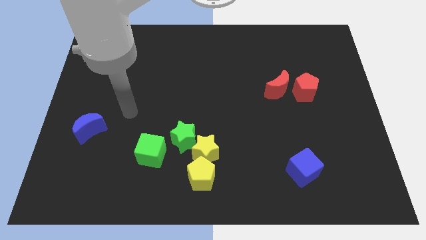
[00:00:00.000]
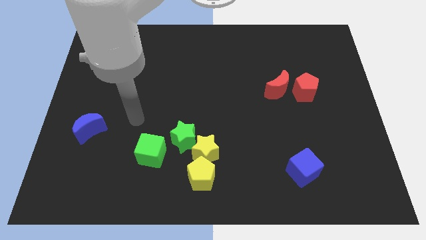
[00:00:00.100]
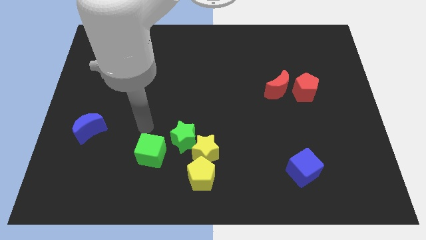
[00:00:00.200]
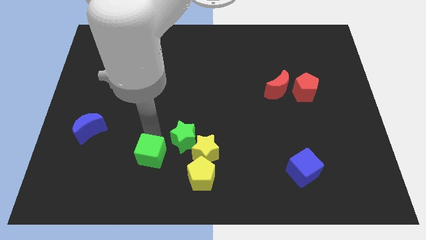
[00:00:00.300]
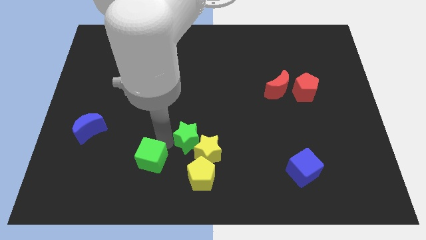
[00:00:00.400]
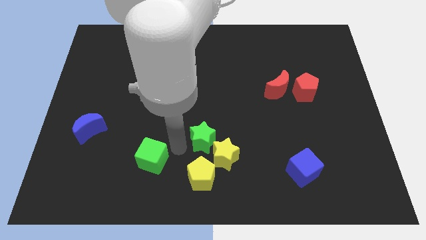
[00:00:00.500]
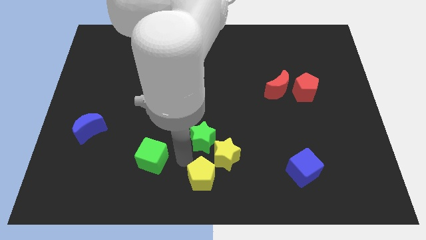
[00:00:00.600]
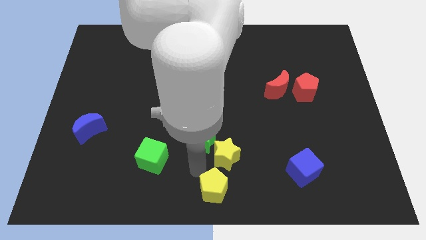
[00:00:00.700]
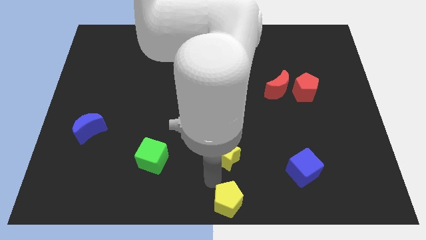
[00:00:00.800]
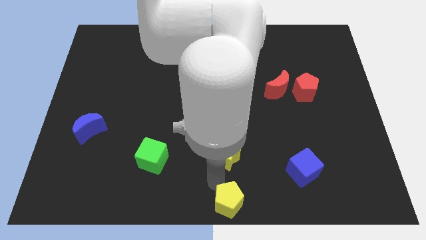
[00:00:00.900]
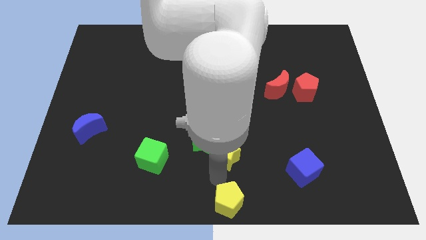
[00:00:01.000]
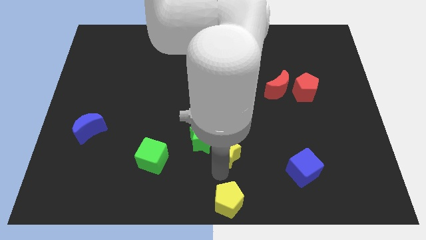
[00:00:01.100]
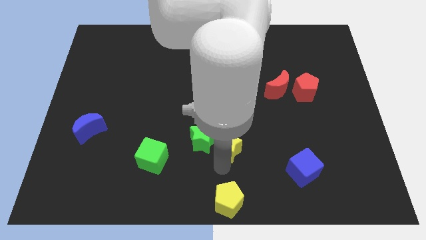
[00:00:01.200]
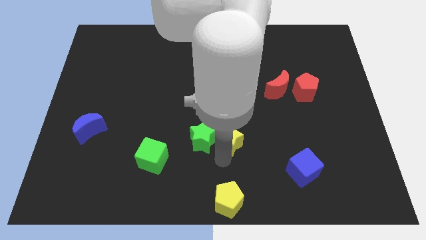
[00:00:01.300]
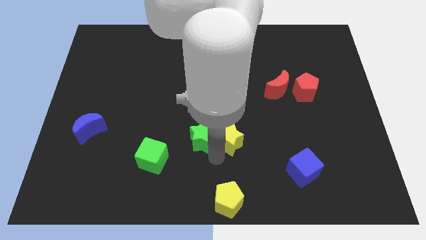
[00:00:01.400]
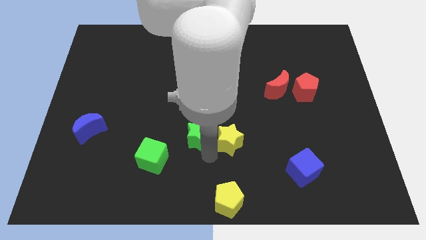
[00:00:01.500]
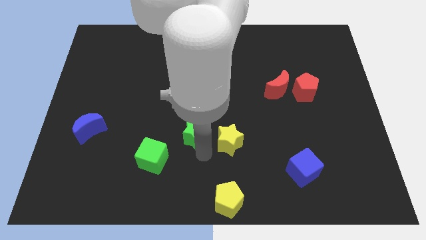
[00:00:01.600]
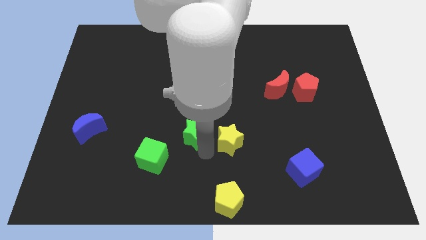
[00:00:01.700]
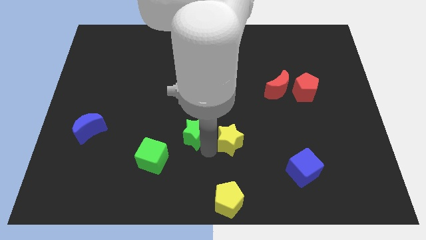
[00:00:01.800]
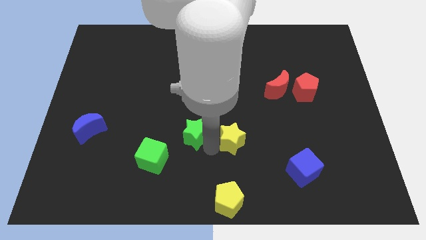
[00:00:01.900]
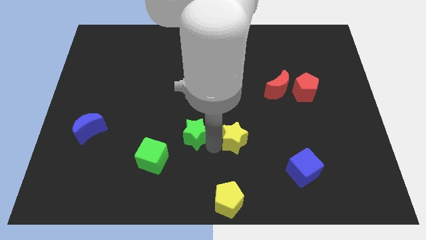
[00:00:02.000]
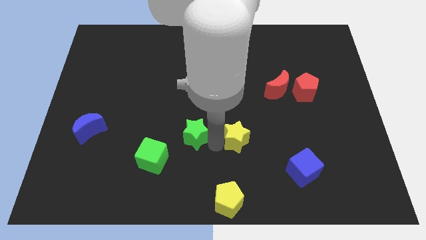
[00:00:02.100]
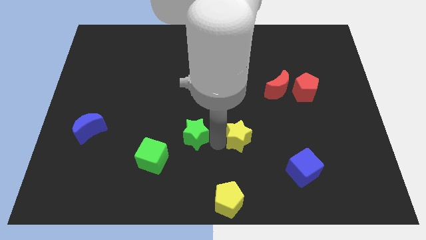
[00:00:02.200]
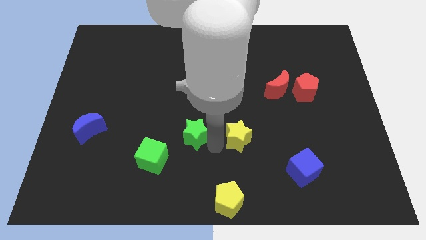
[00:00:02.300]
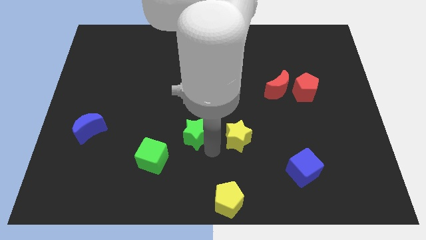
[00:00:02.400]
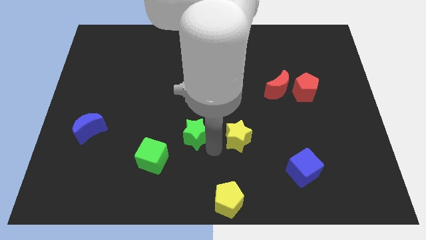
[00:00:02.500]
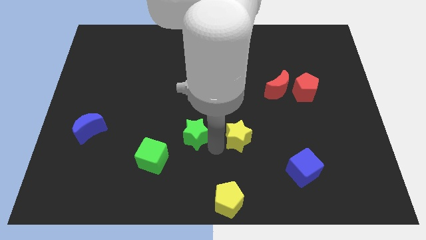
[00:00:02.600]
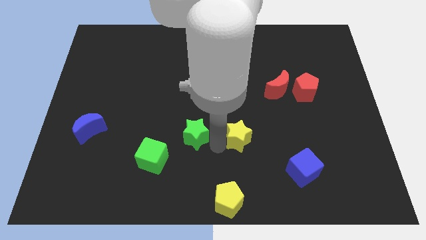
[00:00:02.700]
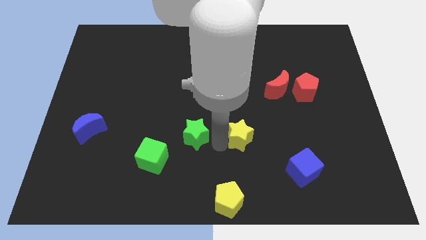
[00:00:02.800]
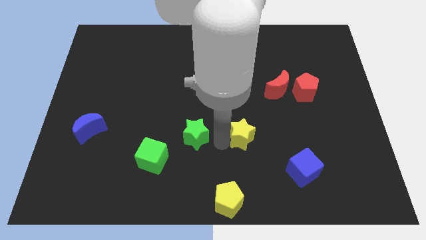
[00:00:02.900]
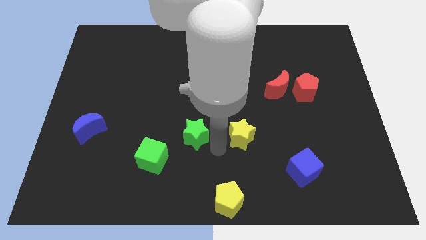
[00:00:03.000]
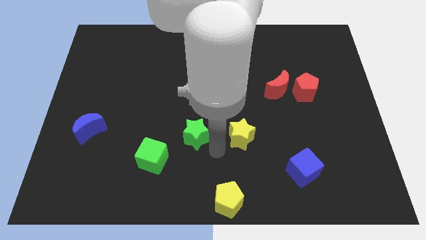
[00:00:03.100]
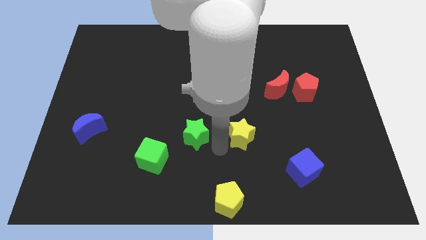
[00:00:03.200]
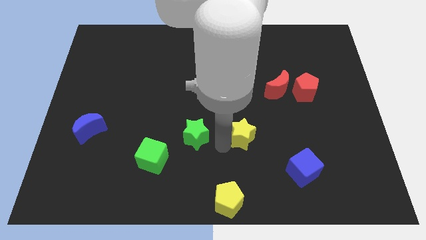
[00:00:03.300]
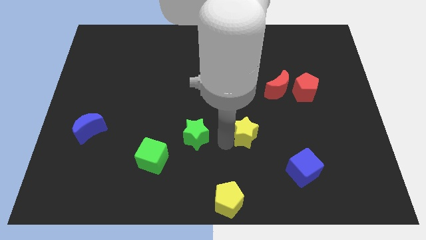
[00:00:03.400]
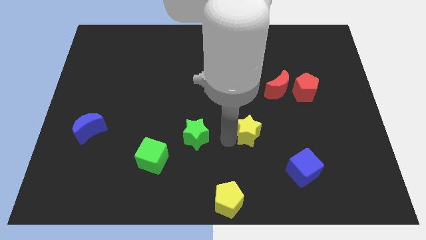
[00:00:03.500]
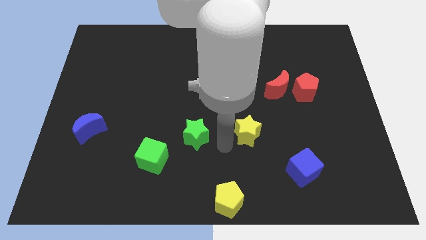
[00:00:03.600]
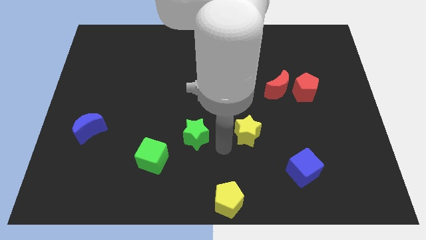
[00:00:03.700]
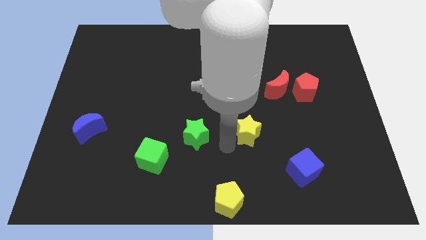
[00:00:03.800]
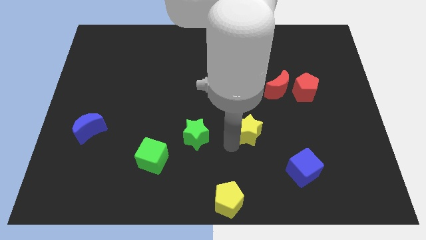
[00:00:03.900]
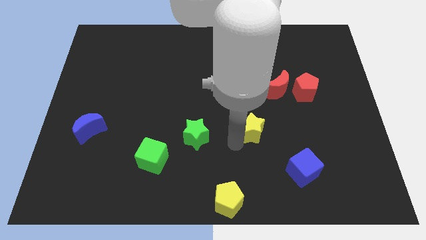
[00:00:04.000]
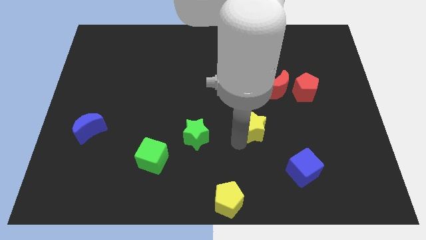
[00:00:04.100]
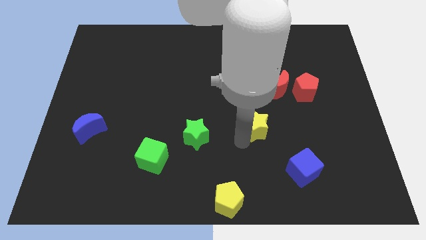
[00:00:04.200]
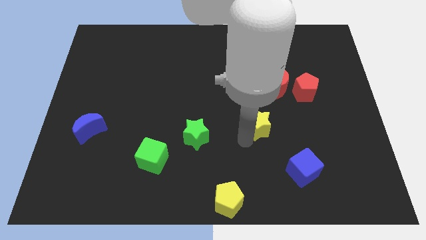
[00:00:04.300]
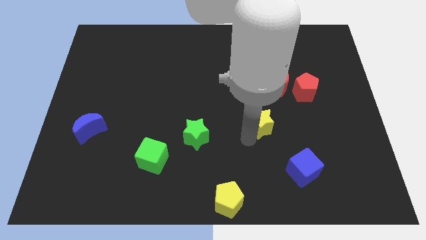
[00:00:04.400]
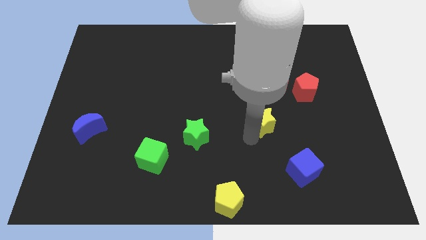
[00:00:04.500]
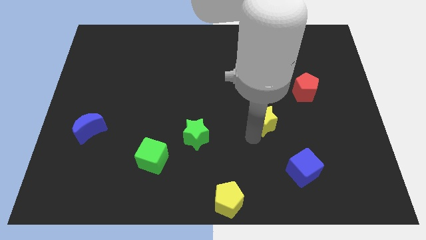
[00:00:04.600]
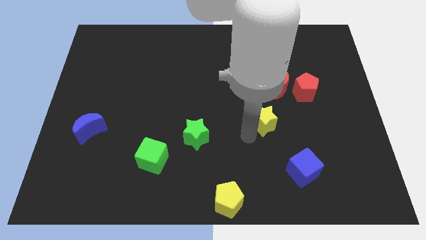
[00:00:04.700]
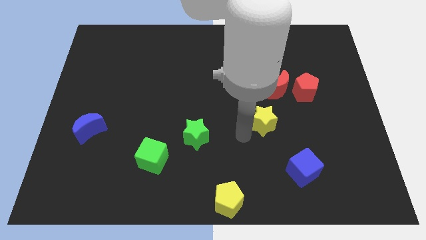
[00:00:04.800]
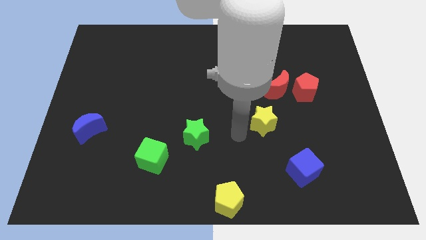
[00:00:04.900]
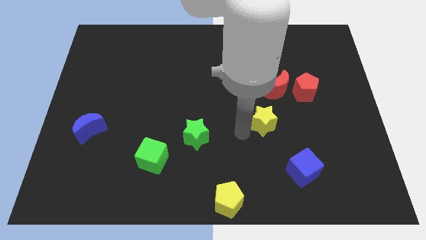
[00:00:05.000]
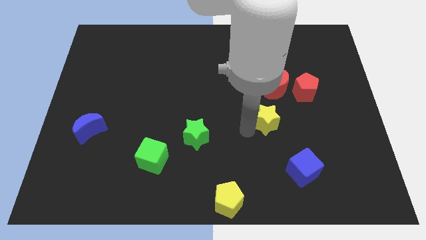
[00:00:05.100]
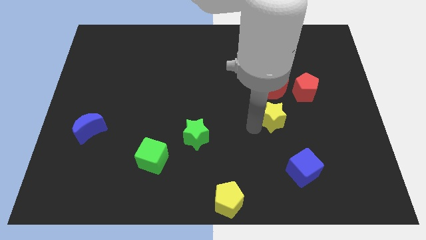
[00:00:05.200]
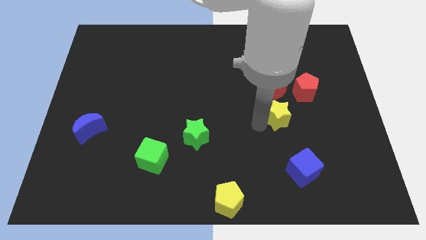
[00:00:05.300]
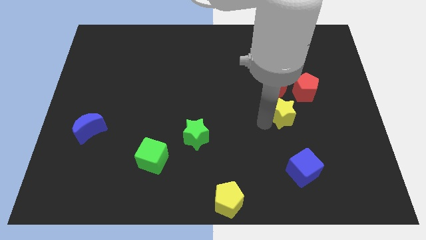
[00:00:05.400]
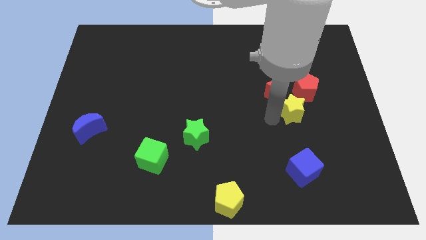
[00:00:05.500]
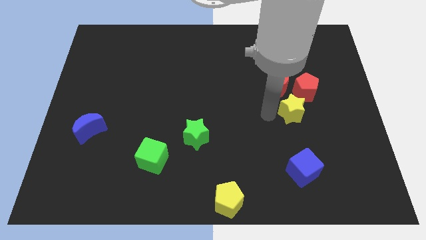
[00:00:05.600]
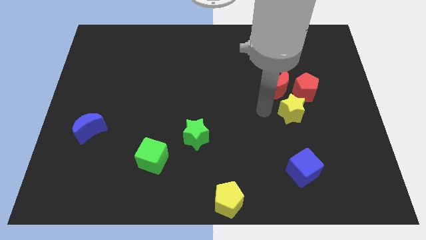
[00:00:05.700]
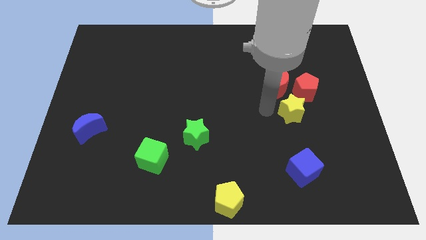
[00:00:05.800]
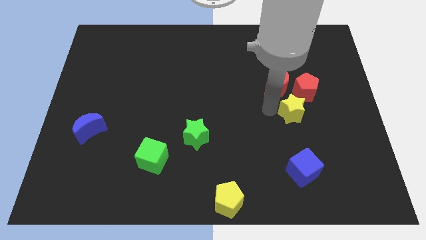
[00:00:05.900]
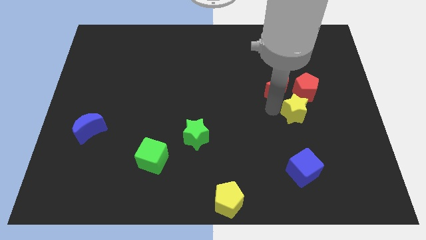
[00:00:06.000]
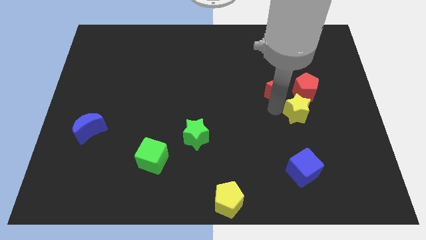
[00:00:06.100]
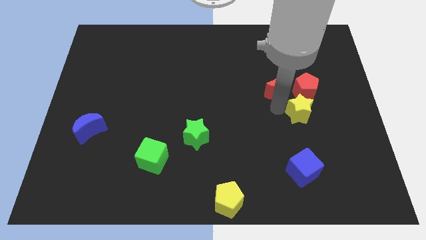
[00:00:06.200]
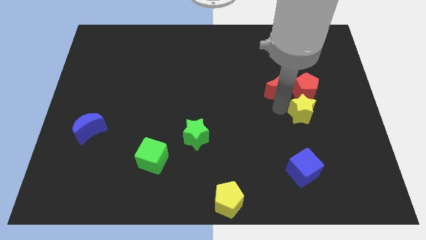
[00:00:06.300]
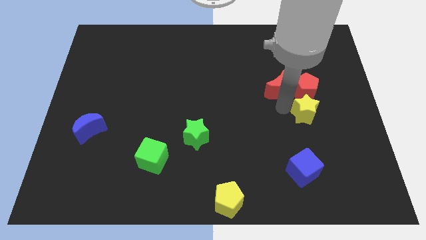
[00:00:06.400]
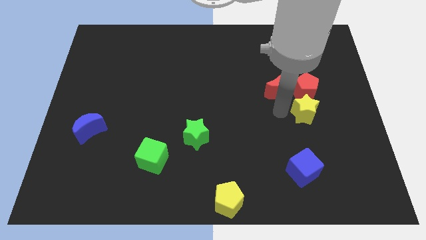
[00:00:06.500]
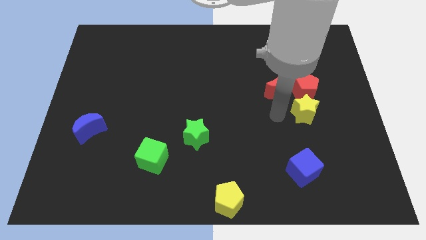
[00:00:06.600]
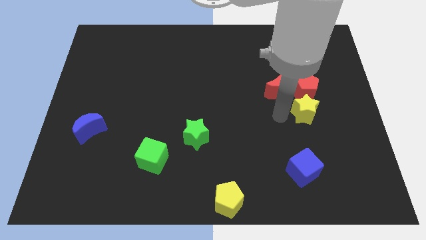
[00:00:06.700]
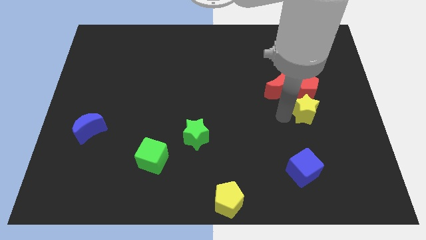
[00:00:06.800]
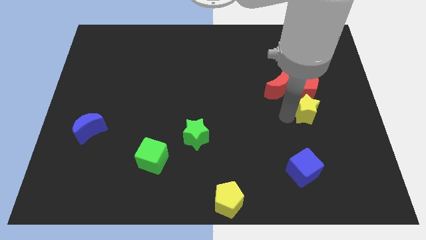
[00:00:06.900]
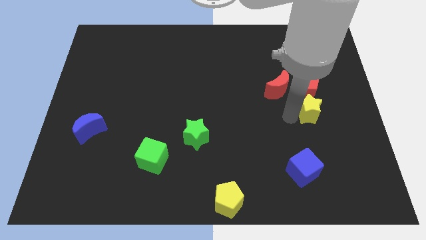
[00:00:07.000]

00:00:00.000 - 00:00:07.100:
put the yellow star diagonally down and to the right of the red pentagon
